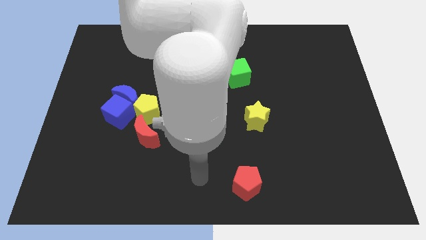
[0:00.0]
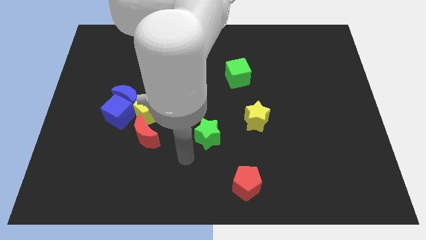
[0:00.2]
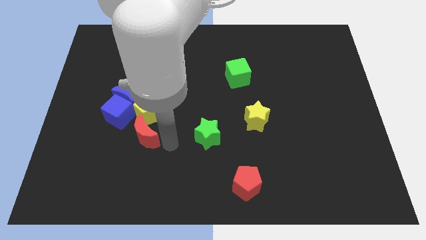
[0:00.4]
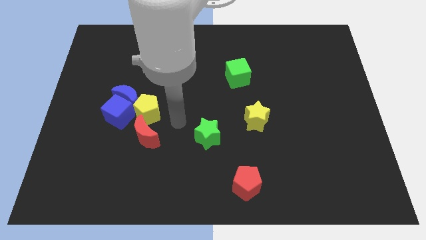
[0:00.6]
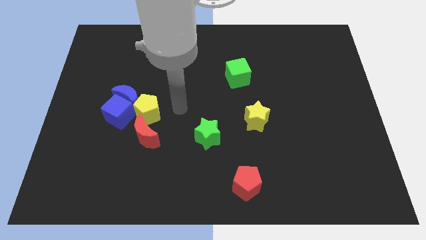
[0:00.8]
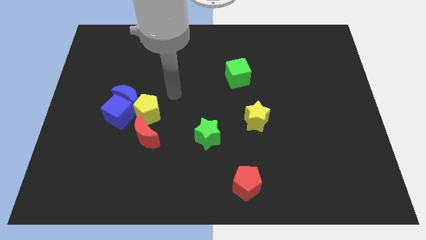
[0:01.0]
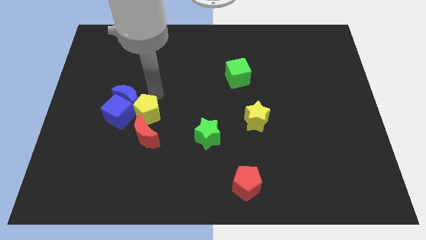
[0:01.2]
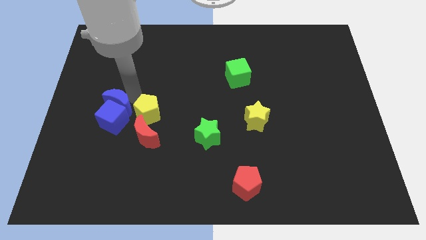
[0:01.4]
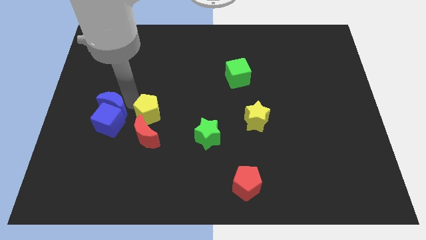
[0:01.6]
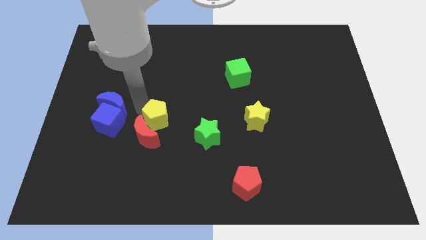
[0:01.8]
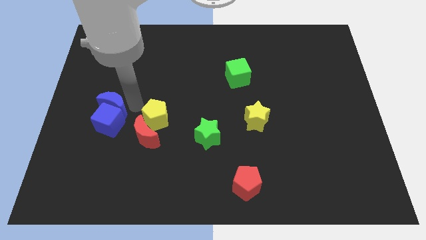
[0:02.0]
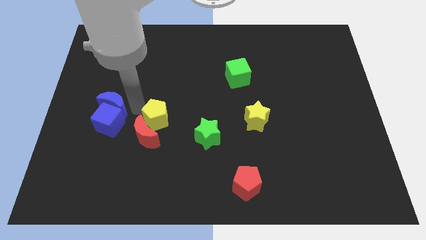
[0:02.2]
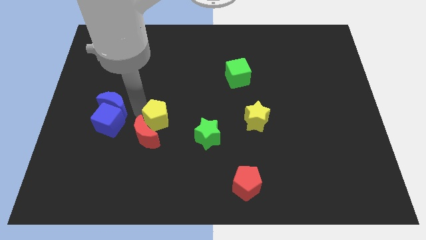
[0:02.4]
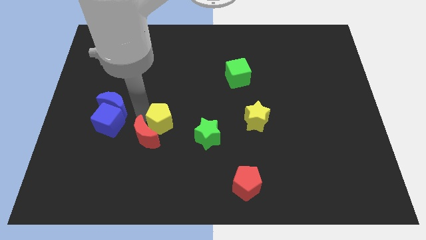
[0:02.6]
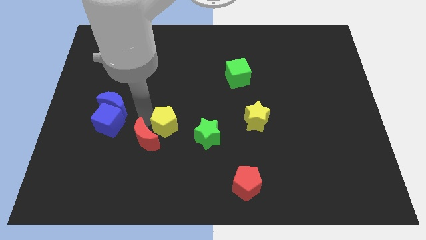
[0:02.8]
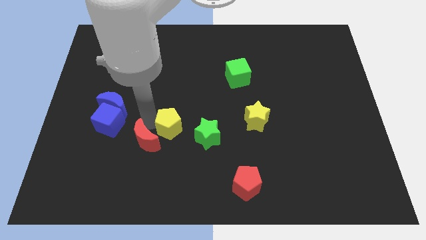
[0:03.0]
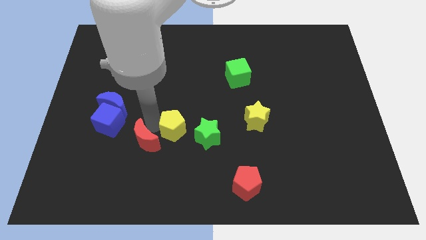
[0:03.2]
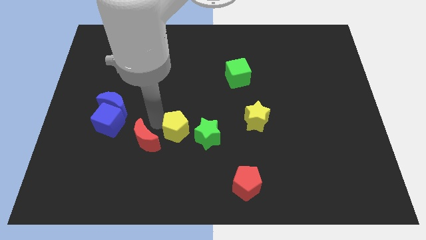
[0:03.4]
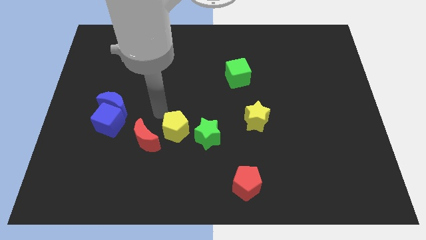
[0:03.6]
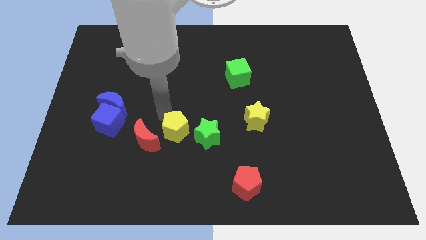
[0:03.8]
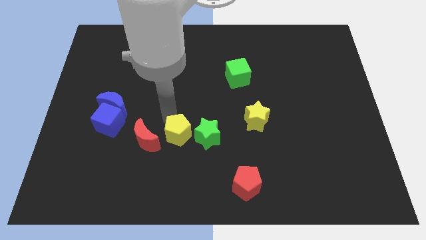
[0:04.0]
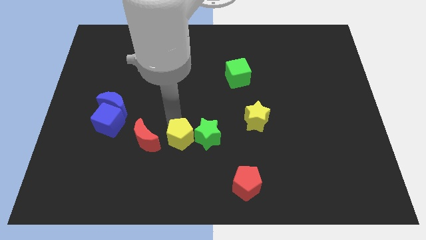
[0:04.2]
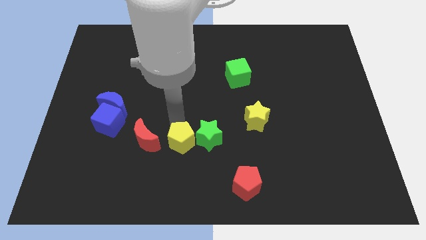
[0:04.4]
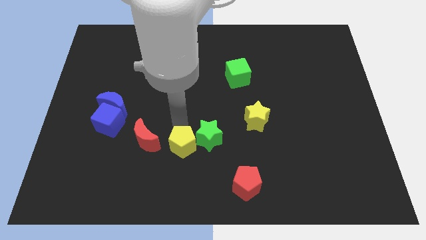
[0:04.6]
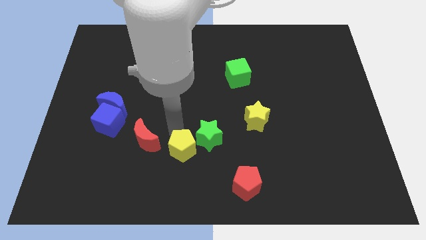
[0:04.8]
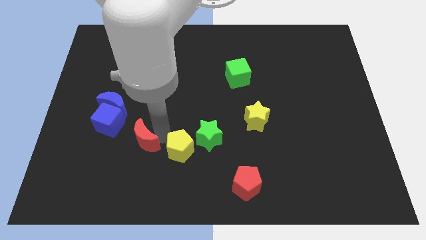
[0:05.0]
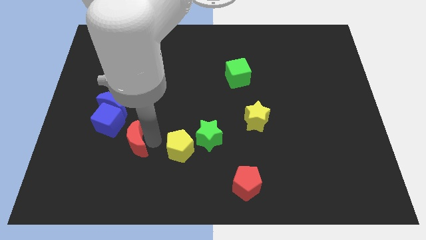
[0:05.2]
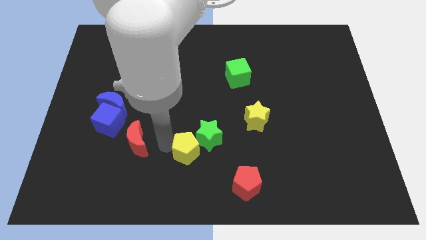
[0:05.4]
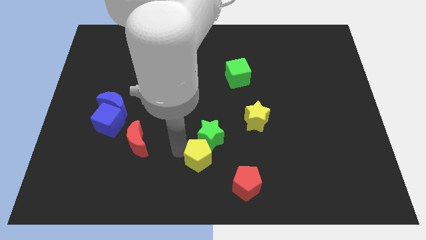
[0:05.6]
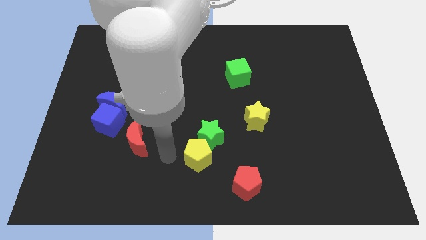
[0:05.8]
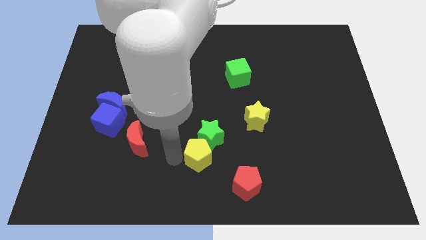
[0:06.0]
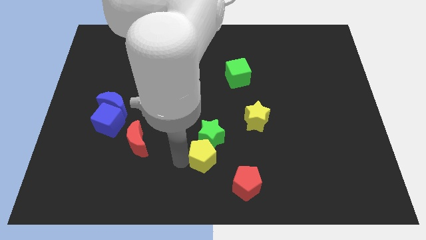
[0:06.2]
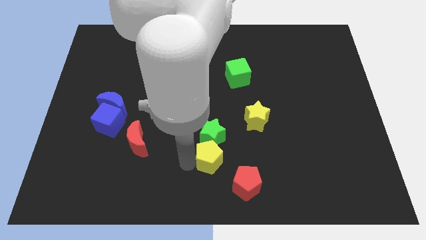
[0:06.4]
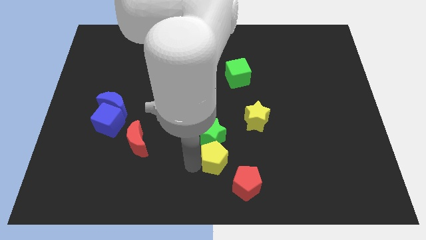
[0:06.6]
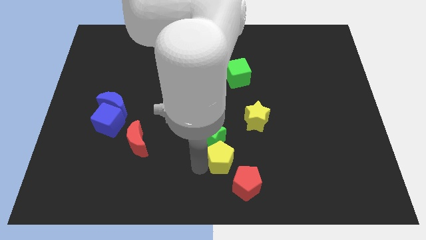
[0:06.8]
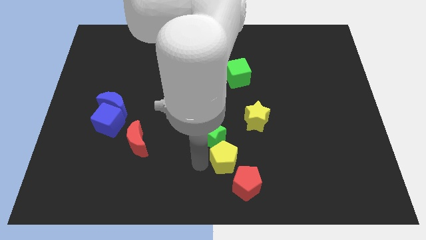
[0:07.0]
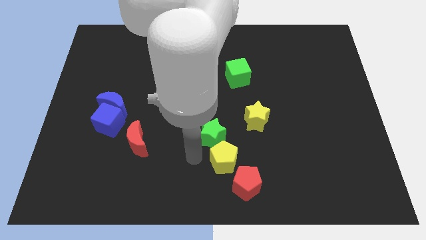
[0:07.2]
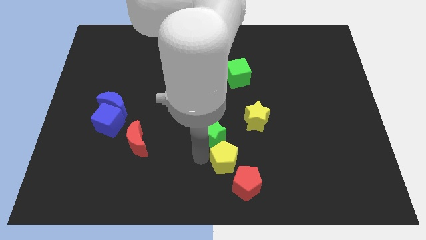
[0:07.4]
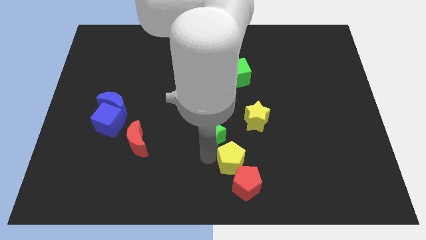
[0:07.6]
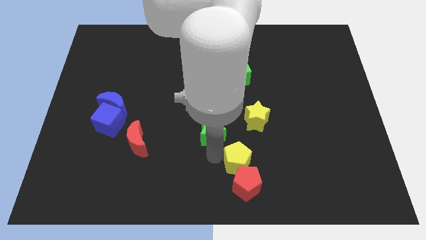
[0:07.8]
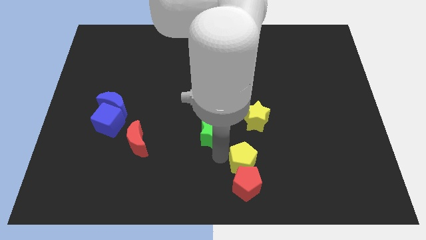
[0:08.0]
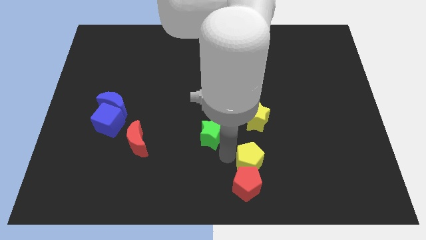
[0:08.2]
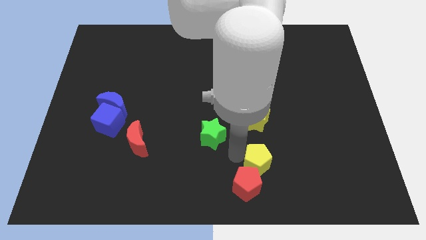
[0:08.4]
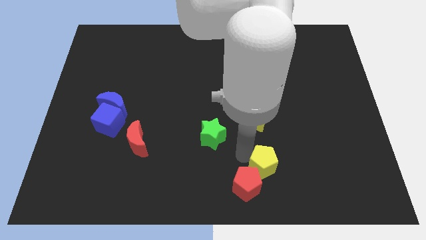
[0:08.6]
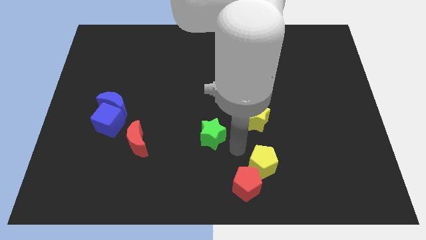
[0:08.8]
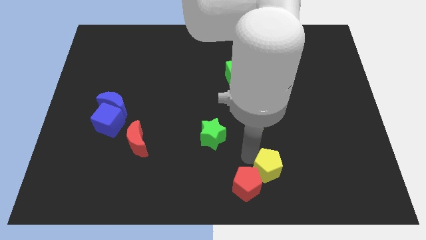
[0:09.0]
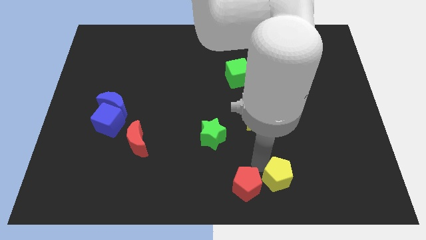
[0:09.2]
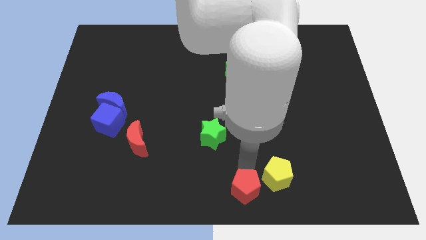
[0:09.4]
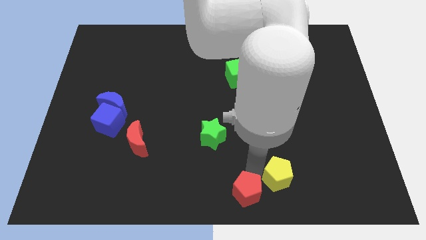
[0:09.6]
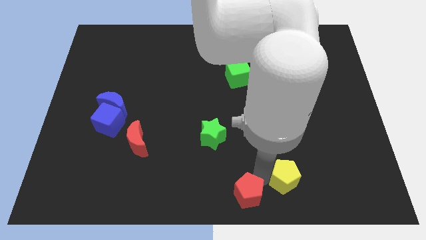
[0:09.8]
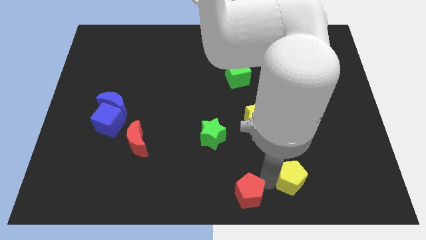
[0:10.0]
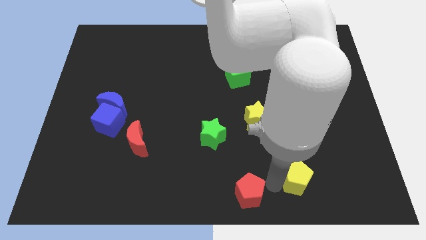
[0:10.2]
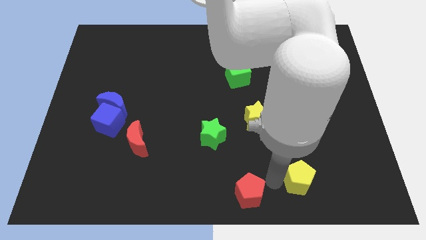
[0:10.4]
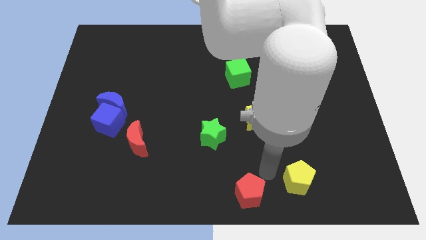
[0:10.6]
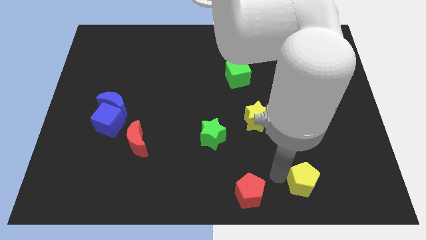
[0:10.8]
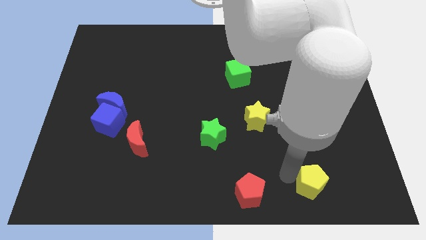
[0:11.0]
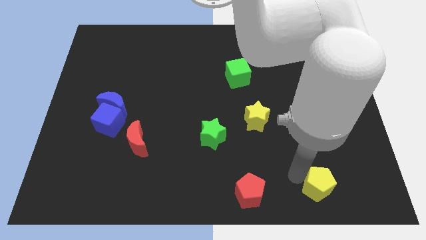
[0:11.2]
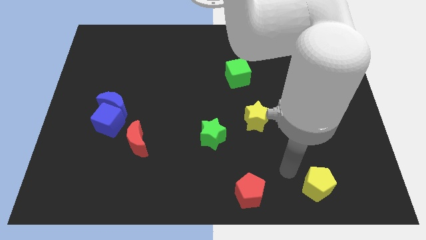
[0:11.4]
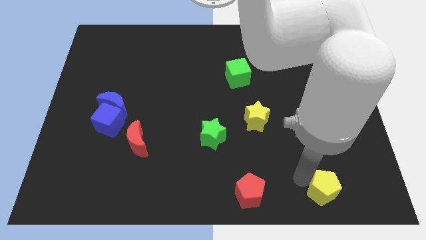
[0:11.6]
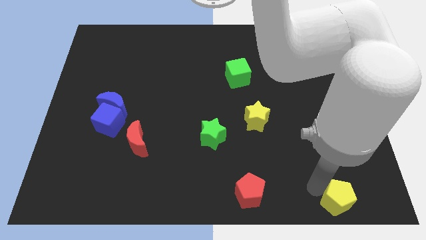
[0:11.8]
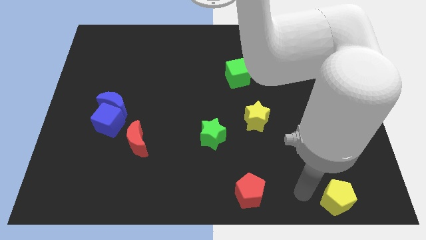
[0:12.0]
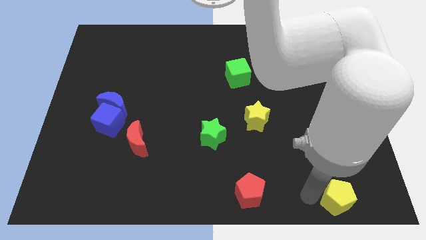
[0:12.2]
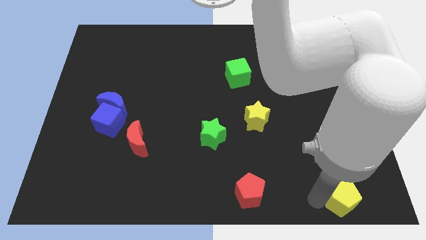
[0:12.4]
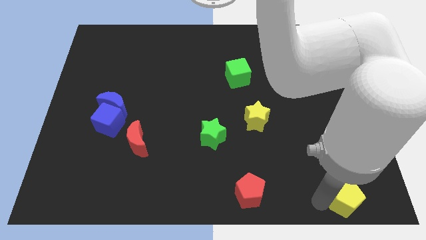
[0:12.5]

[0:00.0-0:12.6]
put the yellow pentagon to the lower right corner
